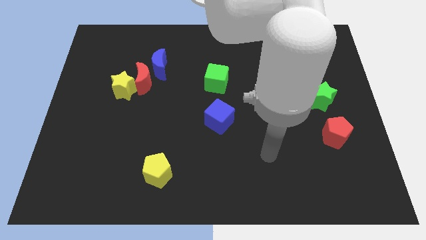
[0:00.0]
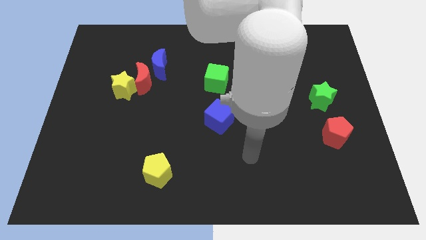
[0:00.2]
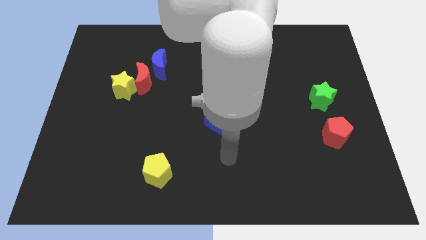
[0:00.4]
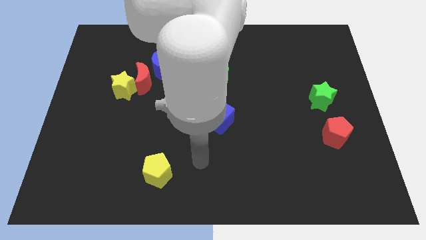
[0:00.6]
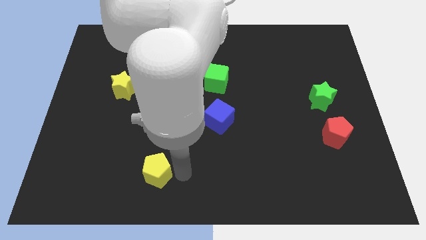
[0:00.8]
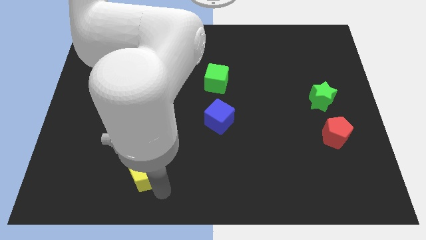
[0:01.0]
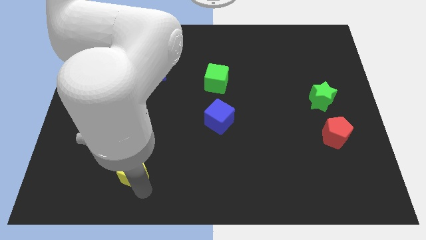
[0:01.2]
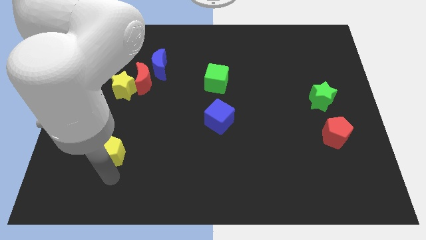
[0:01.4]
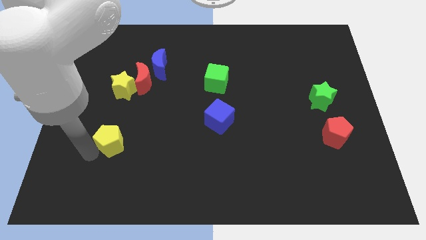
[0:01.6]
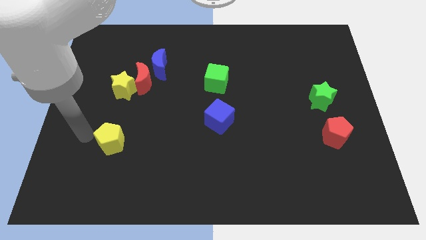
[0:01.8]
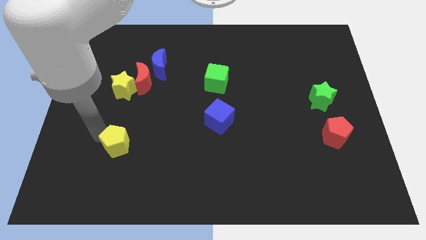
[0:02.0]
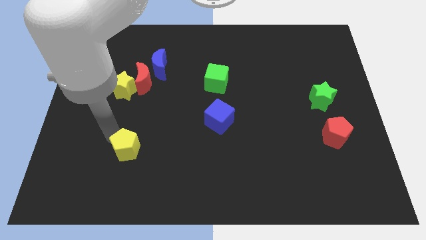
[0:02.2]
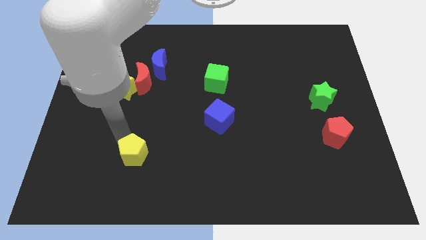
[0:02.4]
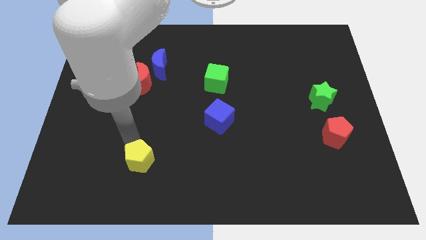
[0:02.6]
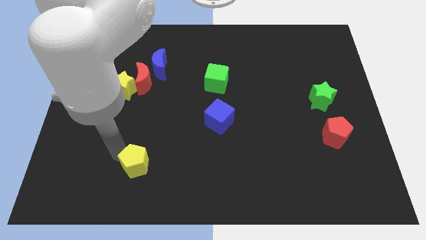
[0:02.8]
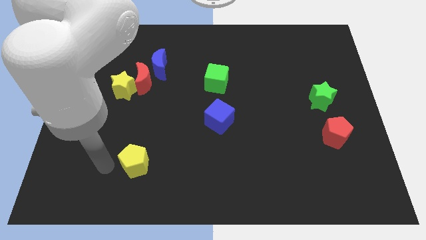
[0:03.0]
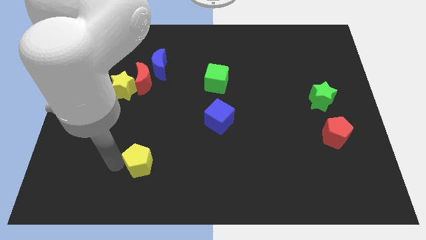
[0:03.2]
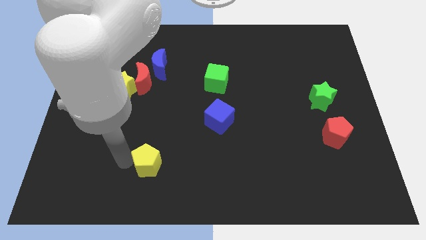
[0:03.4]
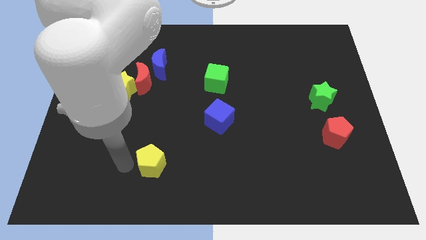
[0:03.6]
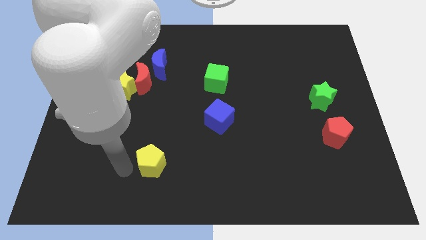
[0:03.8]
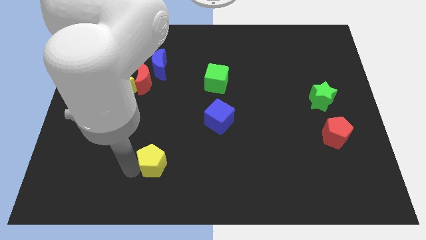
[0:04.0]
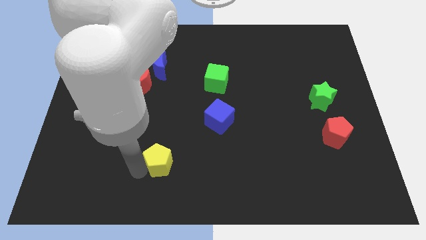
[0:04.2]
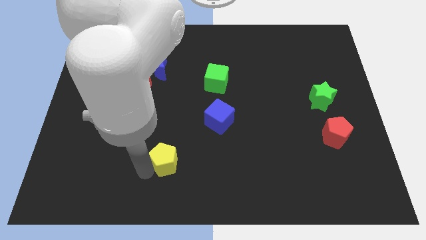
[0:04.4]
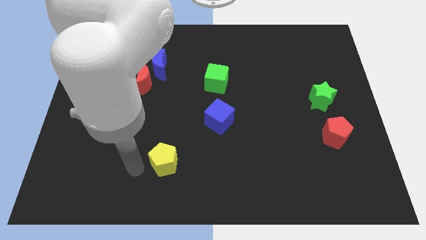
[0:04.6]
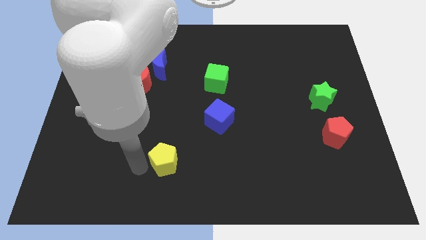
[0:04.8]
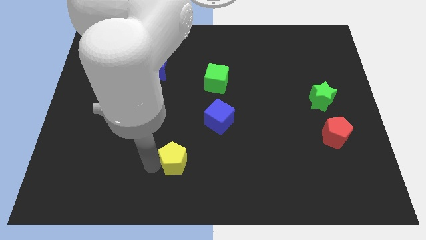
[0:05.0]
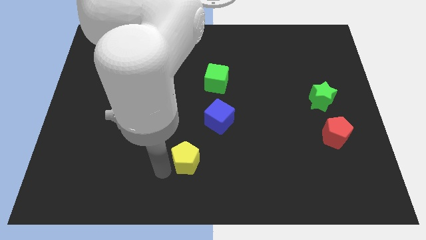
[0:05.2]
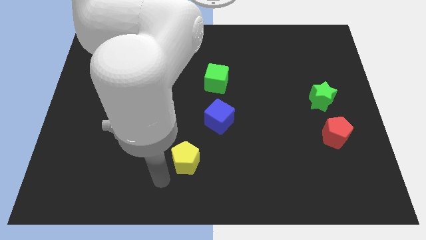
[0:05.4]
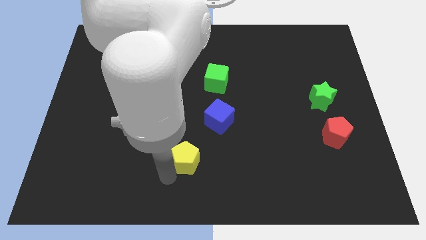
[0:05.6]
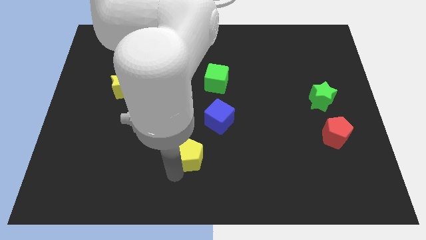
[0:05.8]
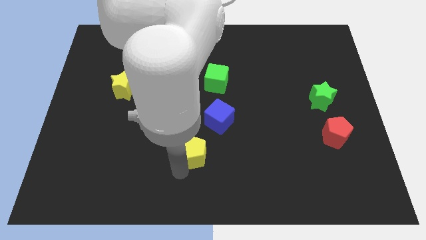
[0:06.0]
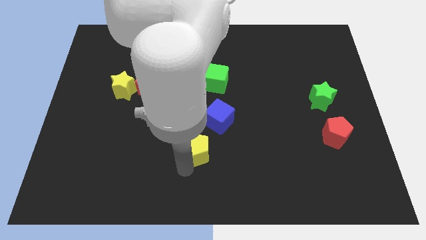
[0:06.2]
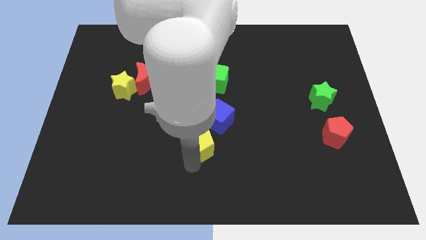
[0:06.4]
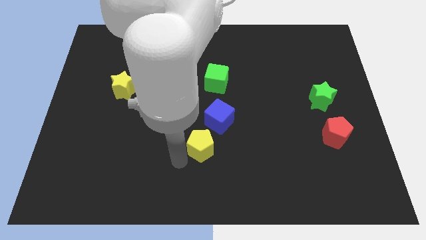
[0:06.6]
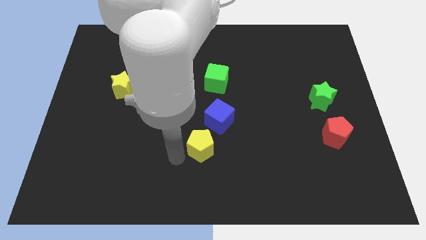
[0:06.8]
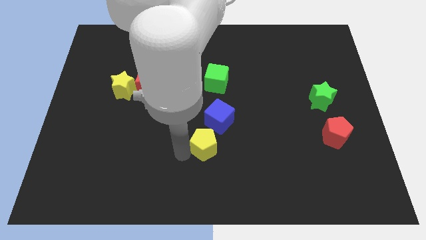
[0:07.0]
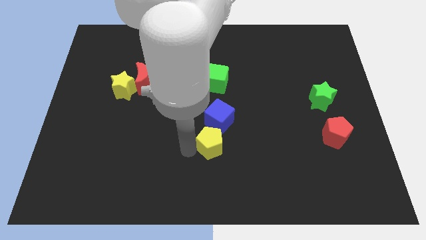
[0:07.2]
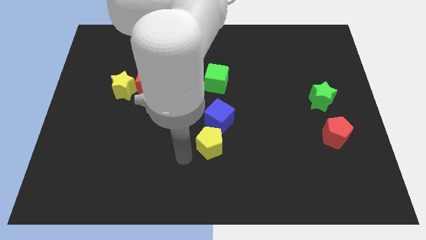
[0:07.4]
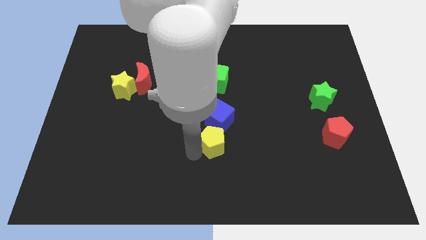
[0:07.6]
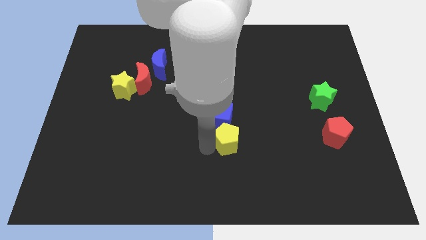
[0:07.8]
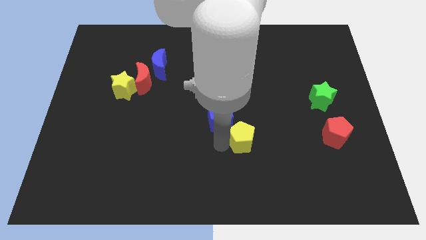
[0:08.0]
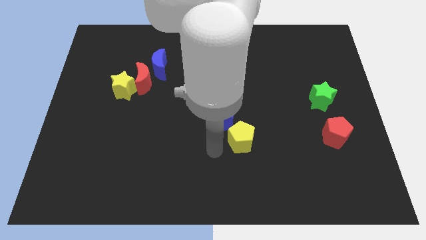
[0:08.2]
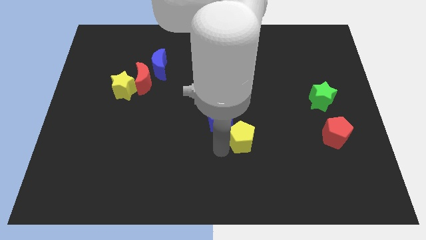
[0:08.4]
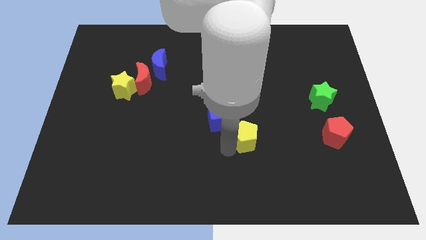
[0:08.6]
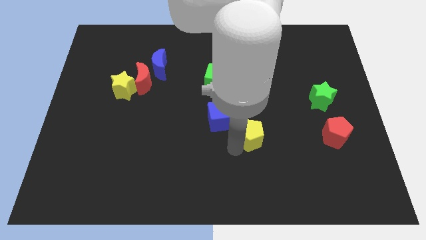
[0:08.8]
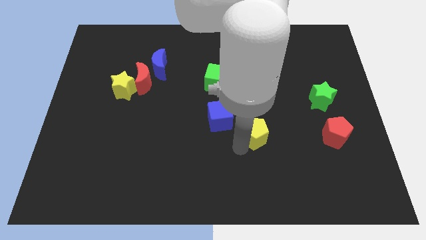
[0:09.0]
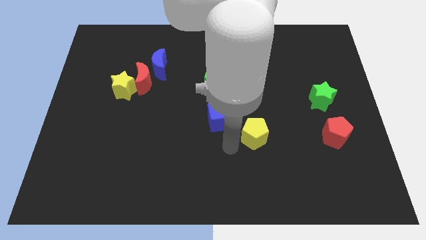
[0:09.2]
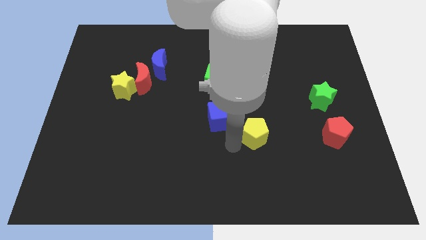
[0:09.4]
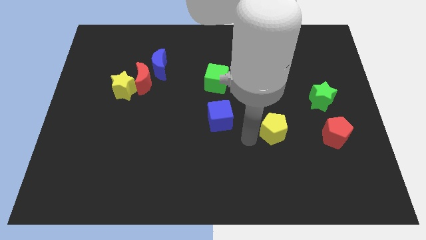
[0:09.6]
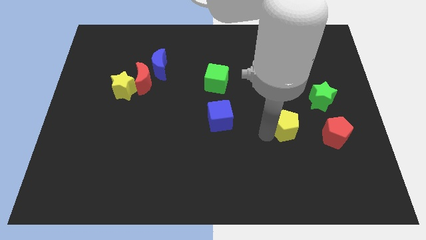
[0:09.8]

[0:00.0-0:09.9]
move the yellow pentagon to the bottom left of the green star

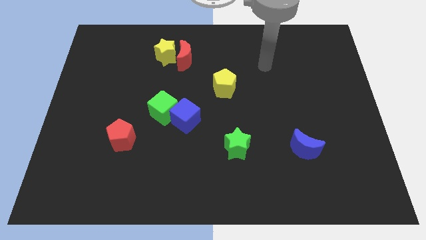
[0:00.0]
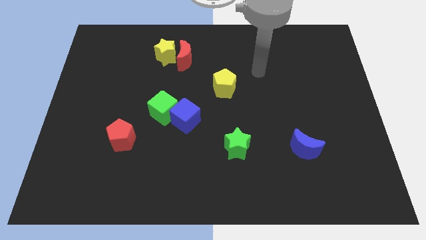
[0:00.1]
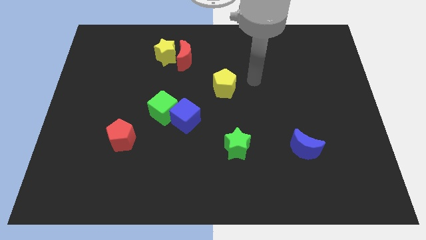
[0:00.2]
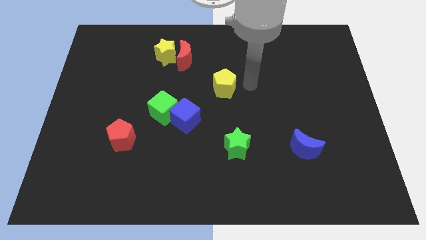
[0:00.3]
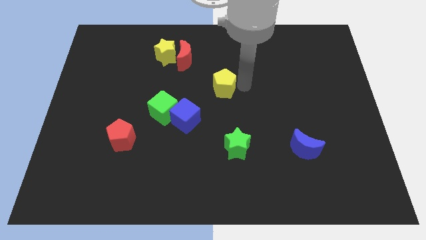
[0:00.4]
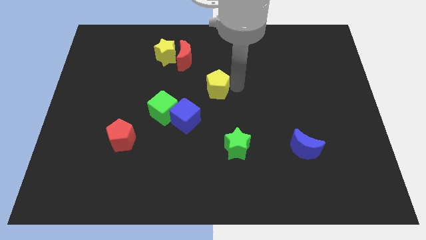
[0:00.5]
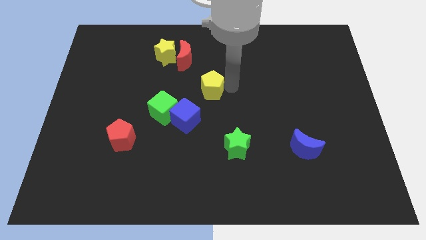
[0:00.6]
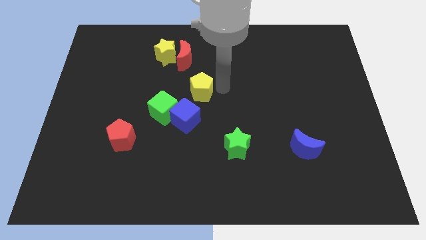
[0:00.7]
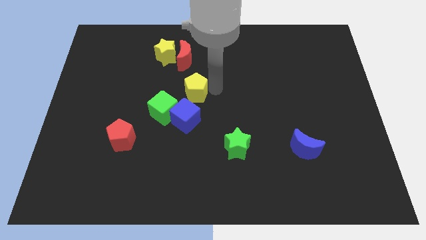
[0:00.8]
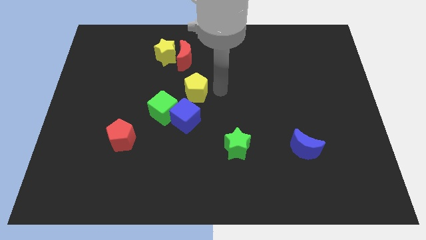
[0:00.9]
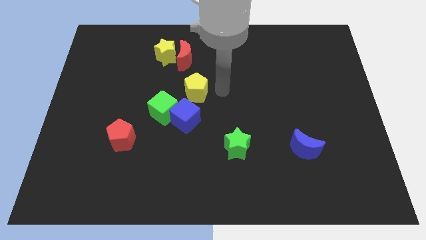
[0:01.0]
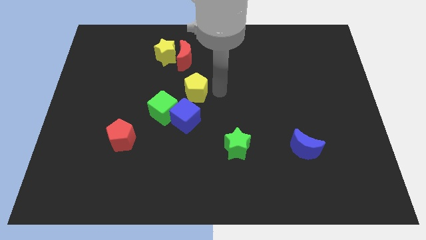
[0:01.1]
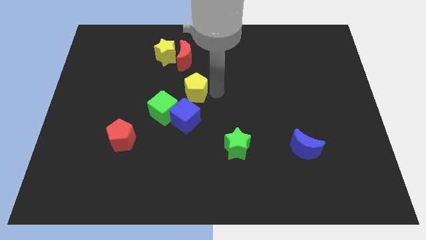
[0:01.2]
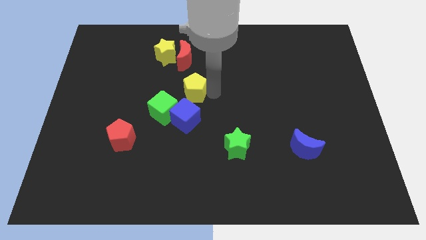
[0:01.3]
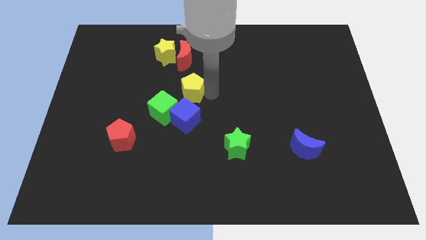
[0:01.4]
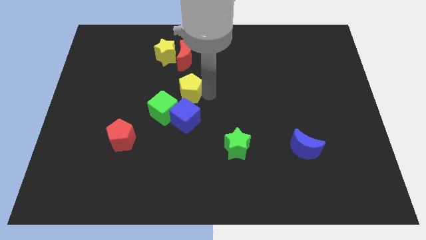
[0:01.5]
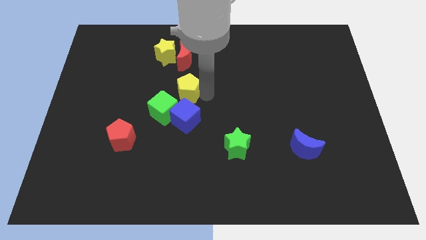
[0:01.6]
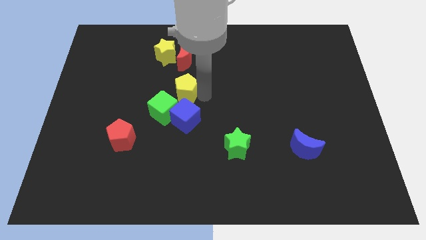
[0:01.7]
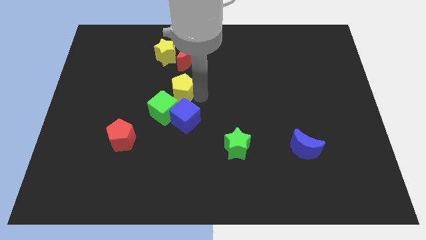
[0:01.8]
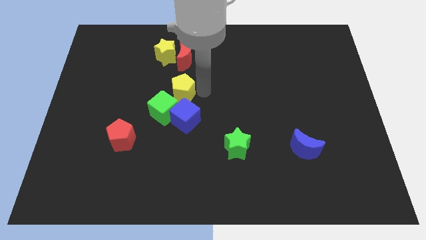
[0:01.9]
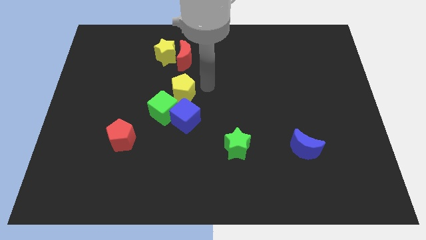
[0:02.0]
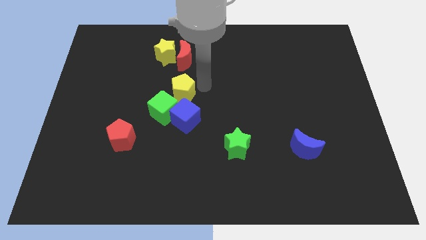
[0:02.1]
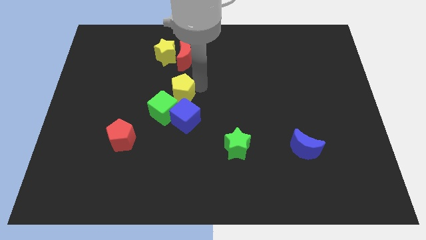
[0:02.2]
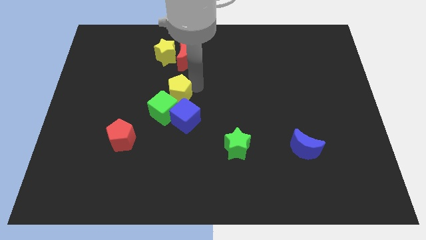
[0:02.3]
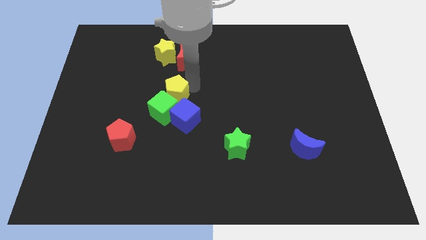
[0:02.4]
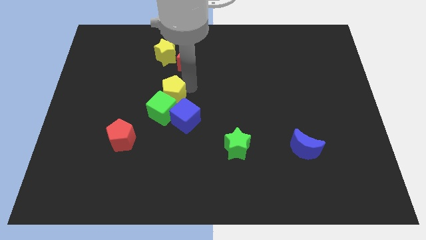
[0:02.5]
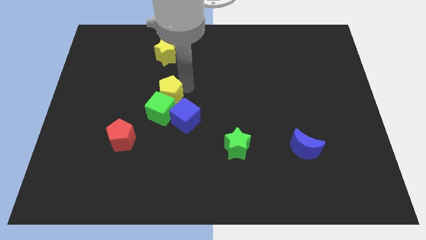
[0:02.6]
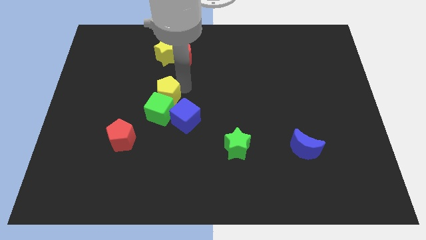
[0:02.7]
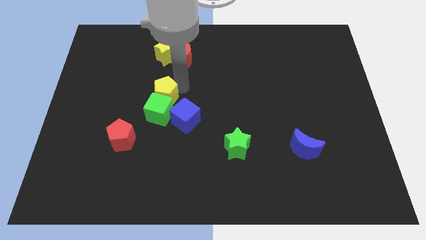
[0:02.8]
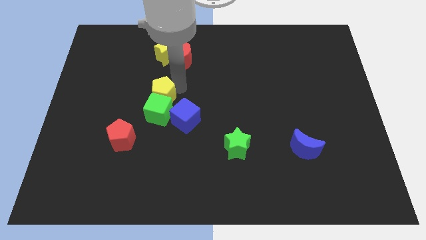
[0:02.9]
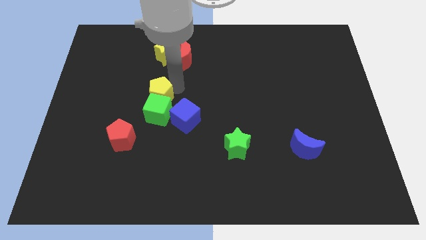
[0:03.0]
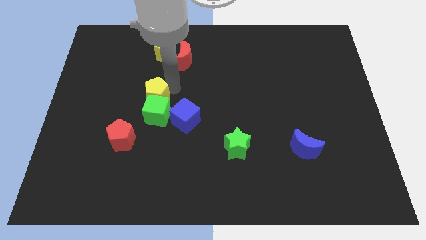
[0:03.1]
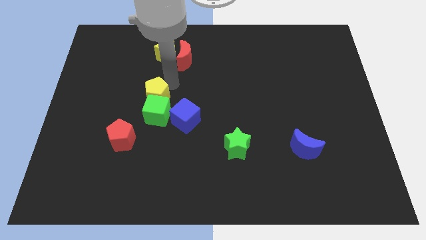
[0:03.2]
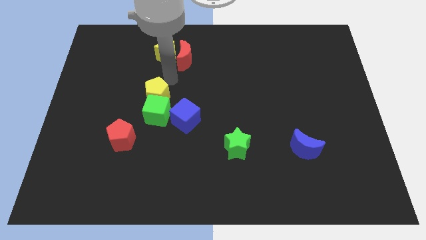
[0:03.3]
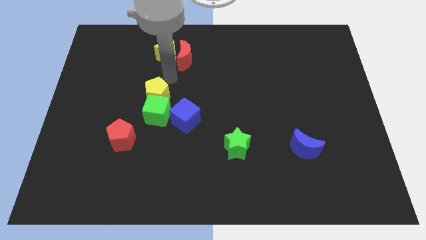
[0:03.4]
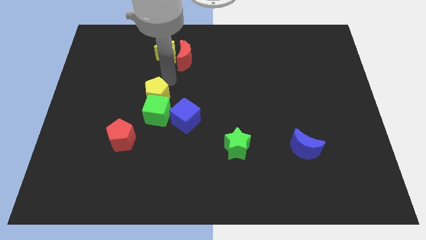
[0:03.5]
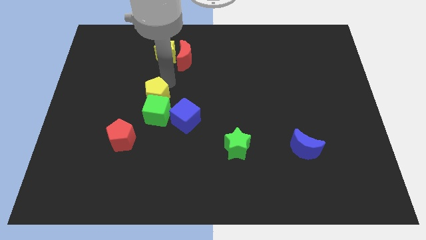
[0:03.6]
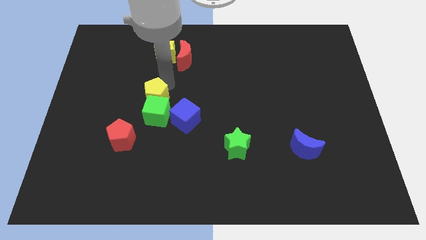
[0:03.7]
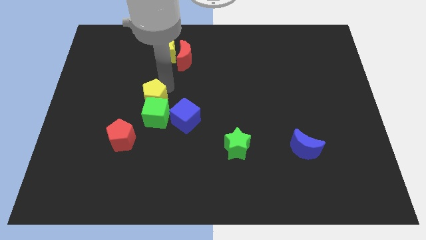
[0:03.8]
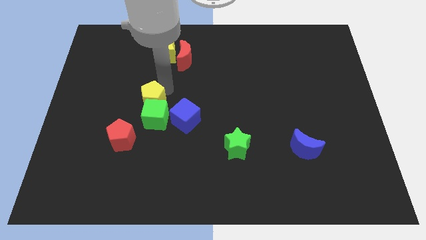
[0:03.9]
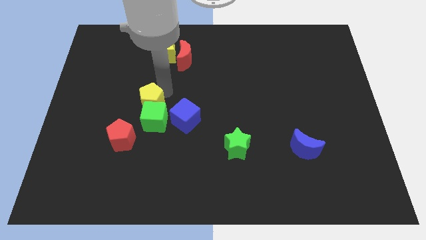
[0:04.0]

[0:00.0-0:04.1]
put the yellow pentagon to the left side of the blue cube
